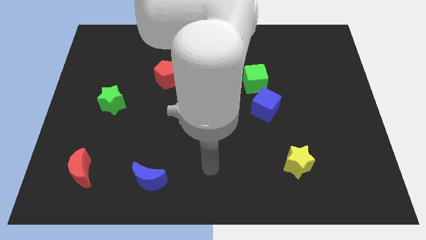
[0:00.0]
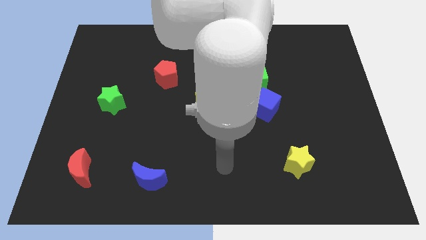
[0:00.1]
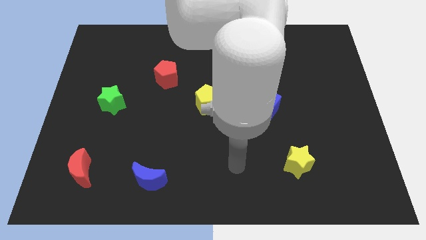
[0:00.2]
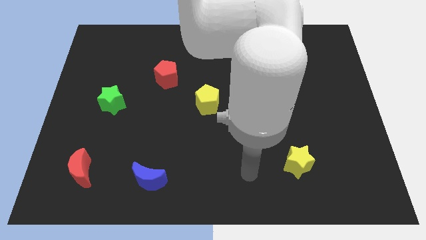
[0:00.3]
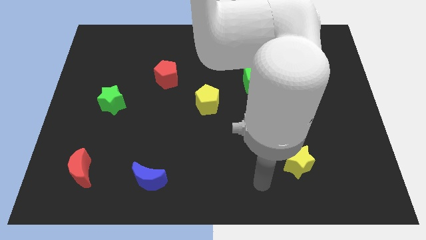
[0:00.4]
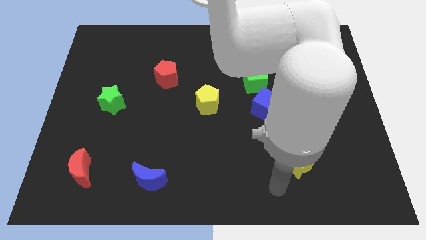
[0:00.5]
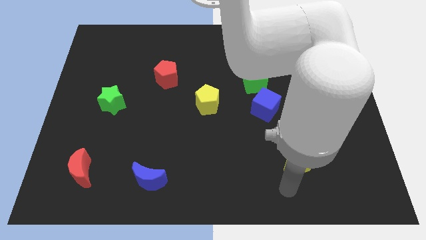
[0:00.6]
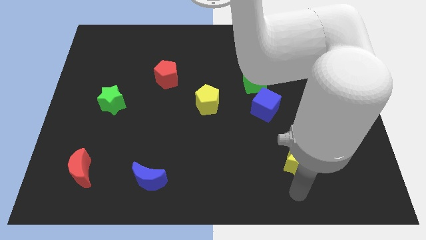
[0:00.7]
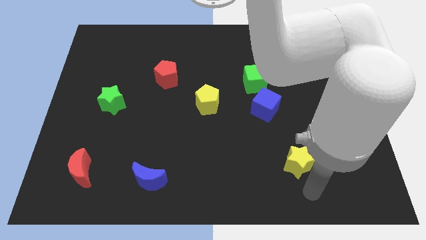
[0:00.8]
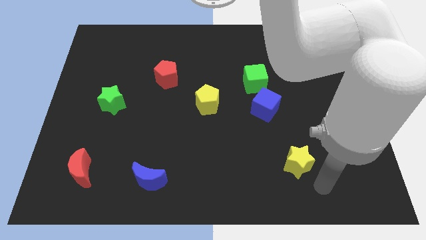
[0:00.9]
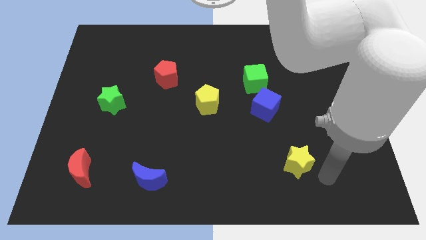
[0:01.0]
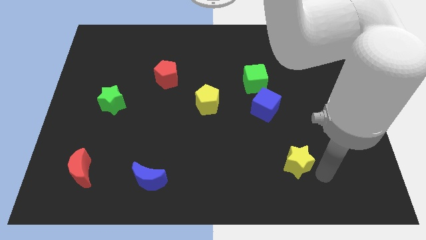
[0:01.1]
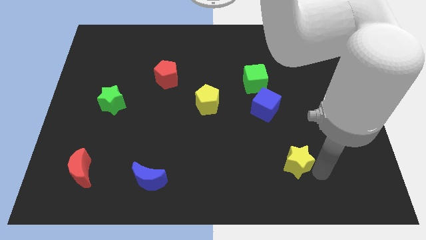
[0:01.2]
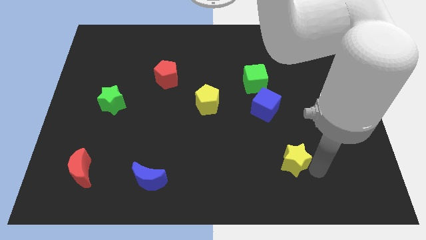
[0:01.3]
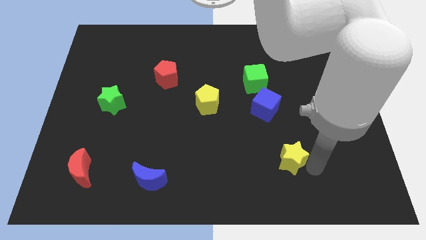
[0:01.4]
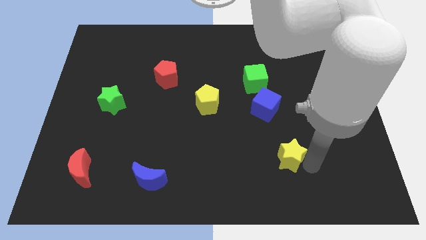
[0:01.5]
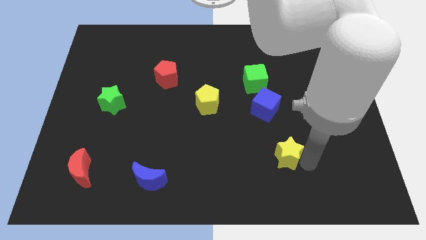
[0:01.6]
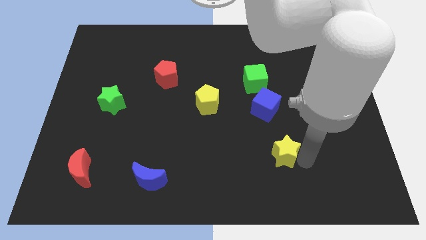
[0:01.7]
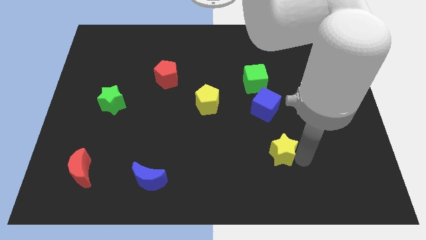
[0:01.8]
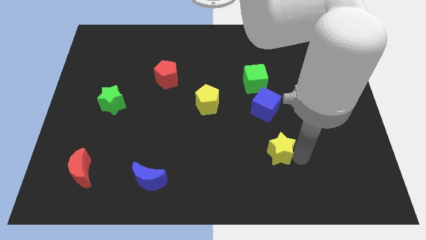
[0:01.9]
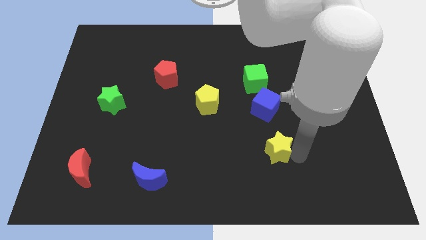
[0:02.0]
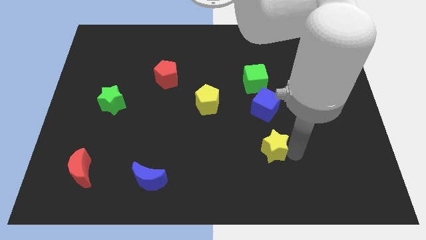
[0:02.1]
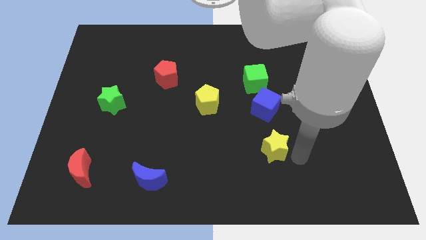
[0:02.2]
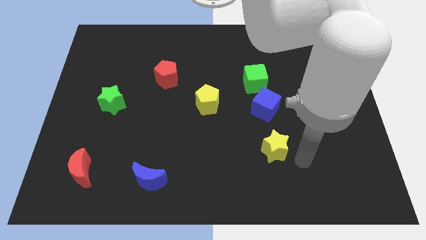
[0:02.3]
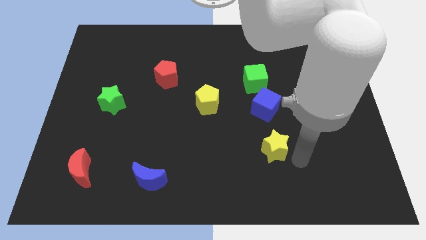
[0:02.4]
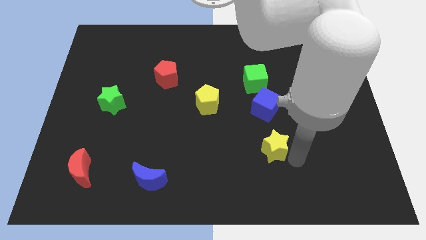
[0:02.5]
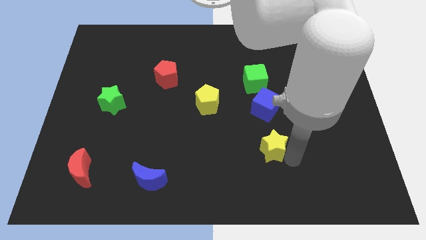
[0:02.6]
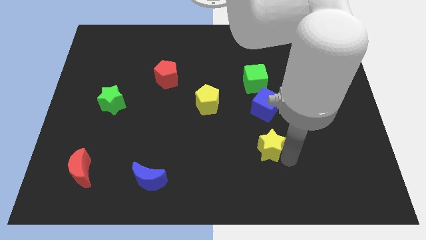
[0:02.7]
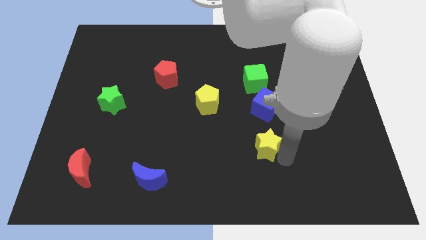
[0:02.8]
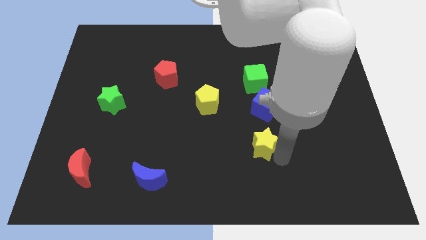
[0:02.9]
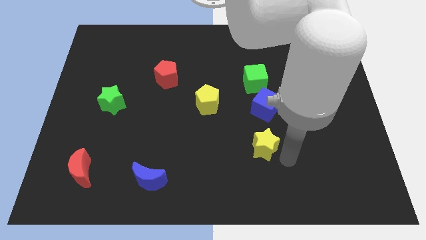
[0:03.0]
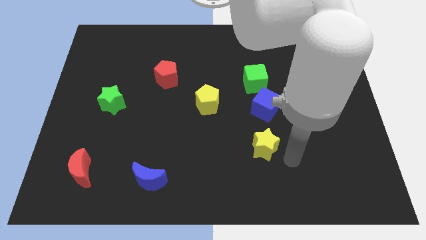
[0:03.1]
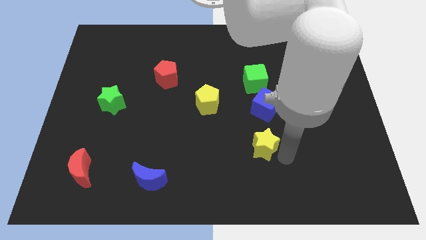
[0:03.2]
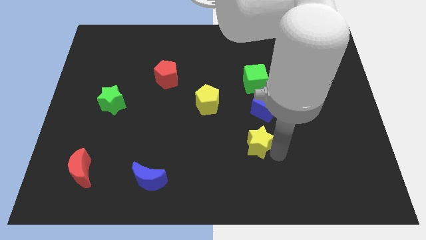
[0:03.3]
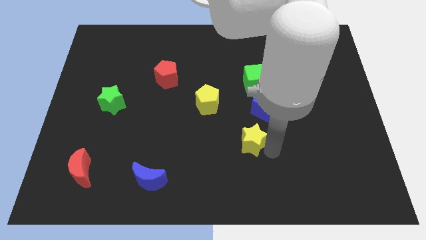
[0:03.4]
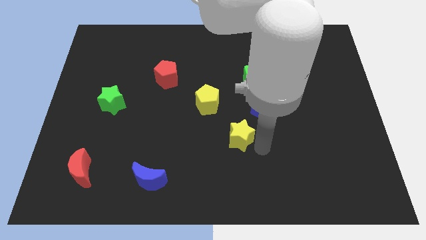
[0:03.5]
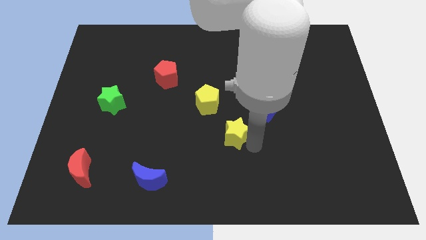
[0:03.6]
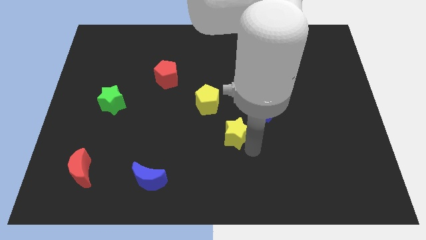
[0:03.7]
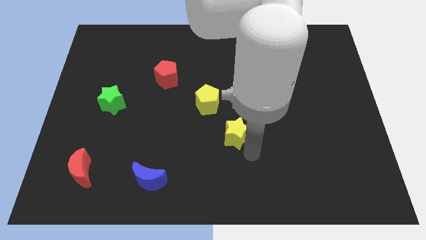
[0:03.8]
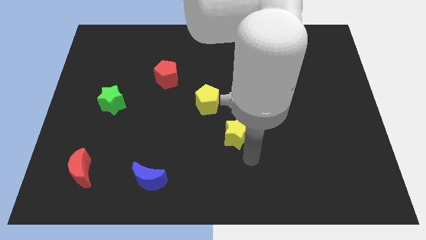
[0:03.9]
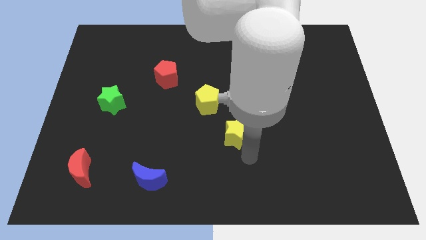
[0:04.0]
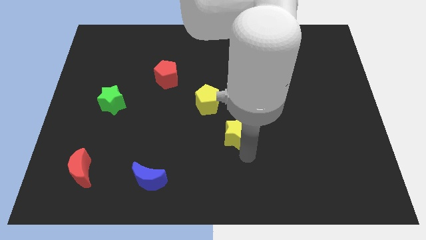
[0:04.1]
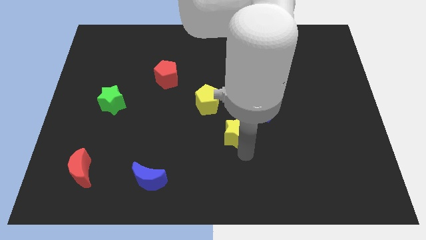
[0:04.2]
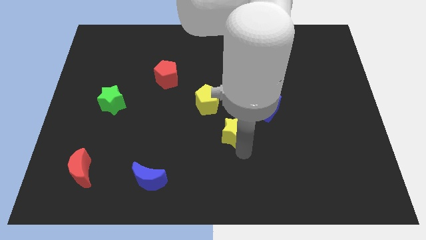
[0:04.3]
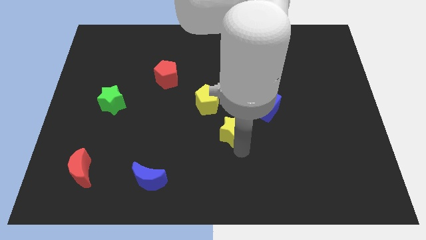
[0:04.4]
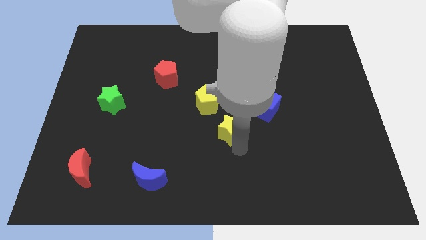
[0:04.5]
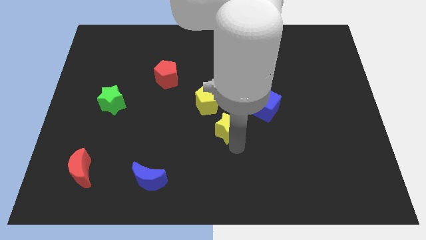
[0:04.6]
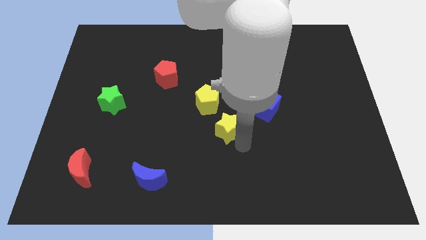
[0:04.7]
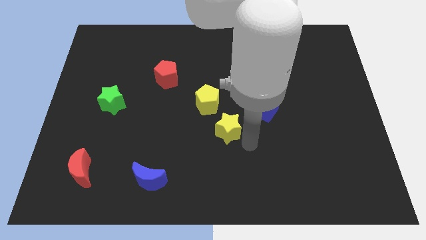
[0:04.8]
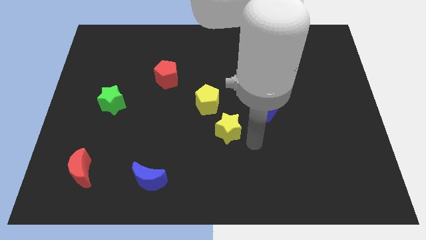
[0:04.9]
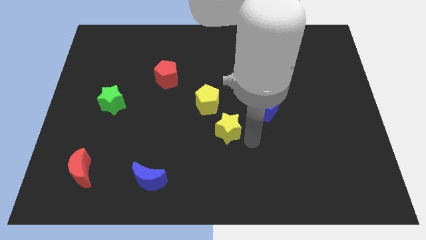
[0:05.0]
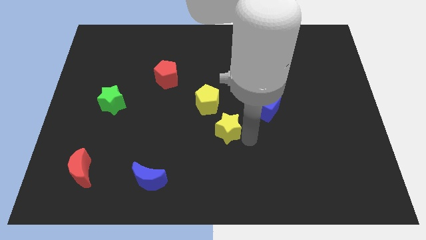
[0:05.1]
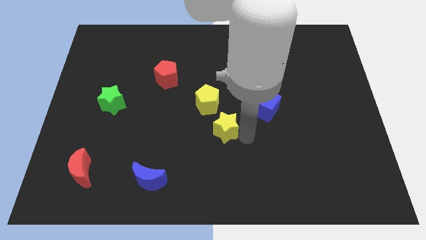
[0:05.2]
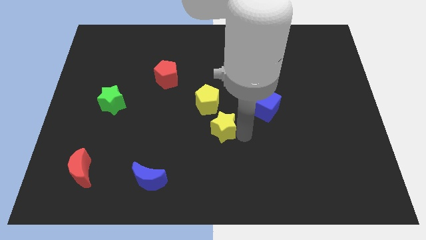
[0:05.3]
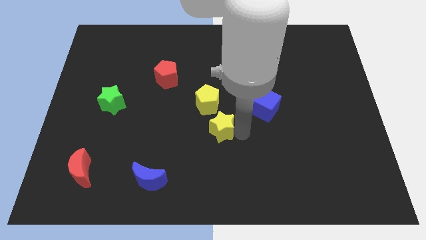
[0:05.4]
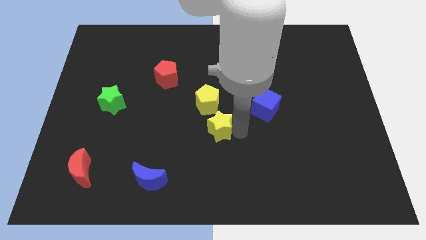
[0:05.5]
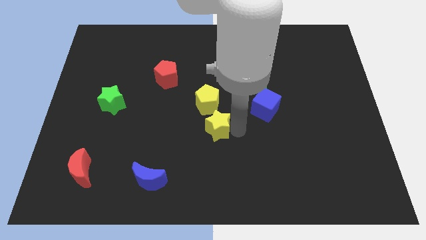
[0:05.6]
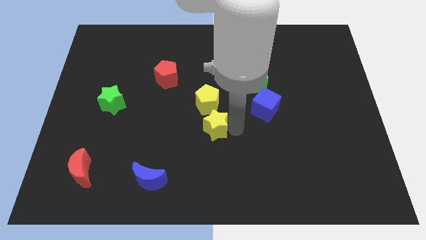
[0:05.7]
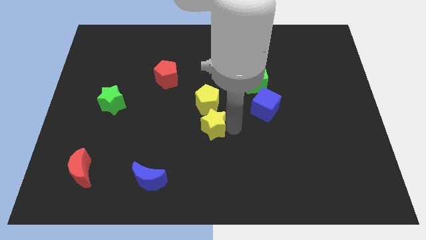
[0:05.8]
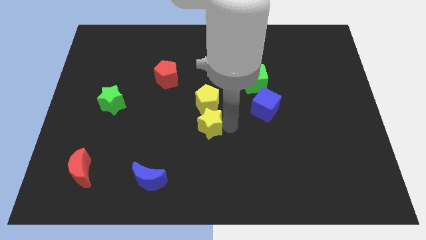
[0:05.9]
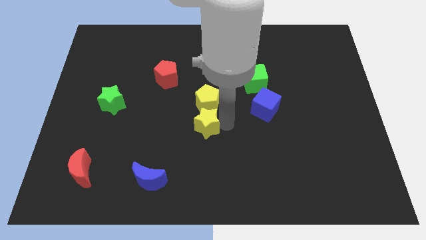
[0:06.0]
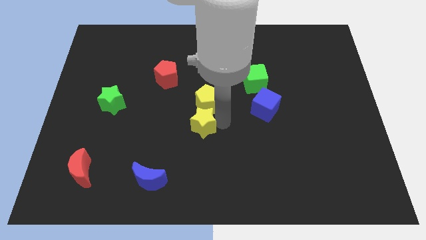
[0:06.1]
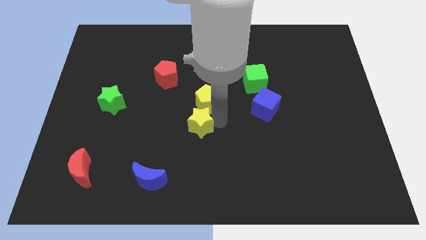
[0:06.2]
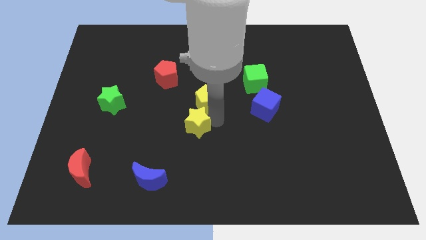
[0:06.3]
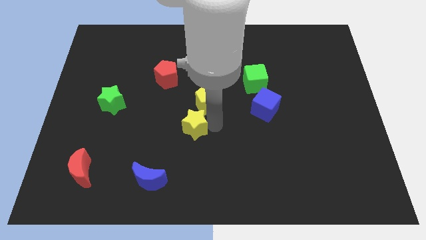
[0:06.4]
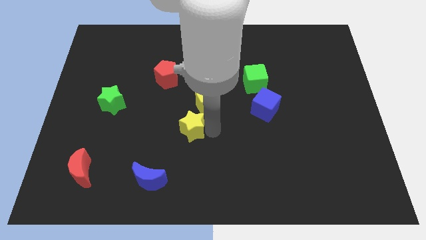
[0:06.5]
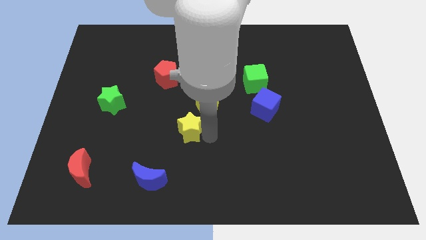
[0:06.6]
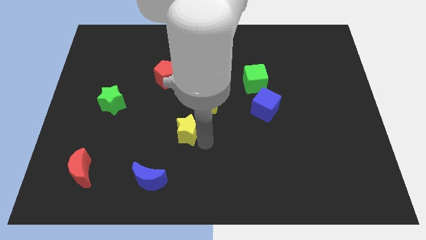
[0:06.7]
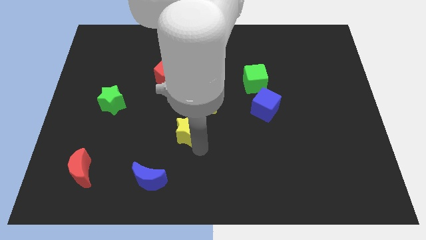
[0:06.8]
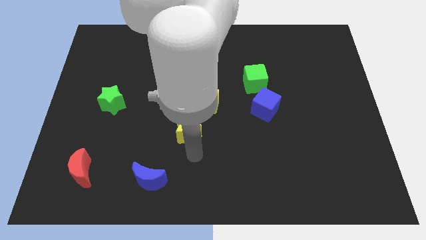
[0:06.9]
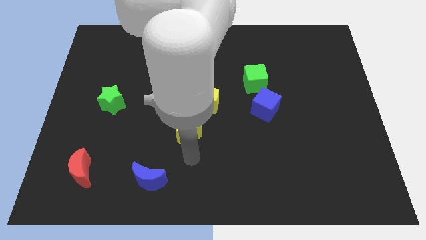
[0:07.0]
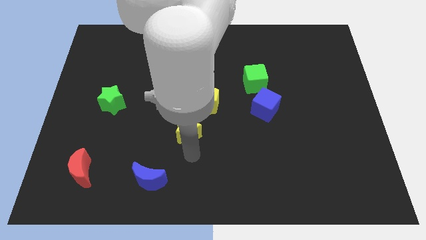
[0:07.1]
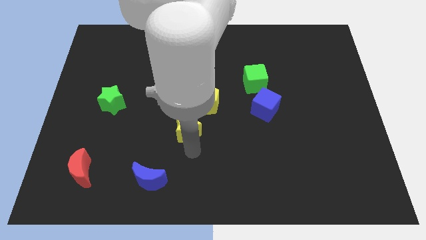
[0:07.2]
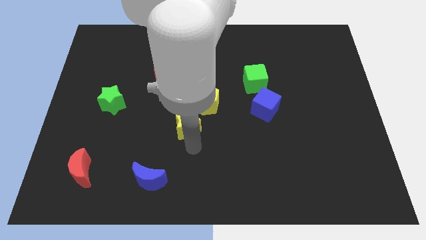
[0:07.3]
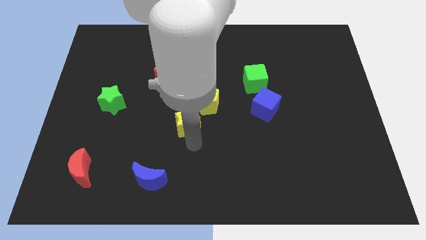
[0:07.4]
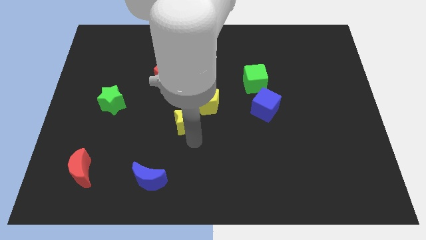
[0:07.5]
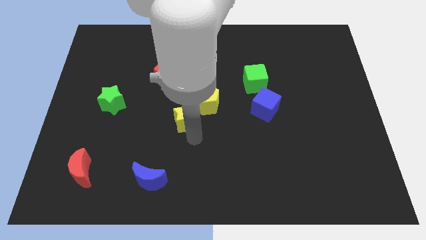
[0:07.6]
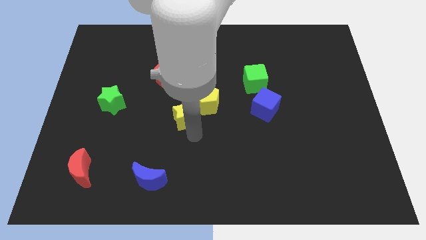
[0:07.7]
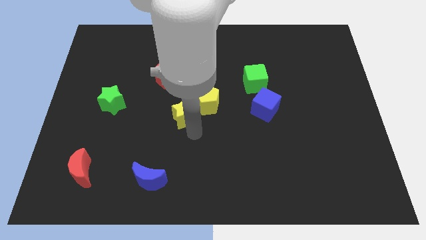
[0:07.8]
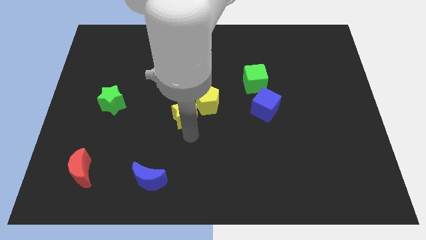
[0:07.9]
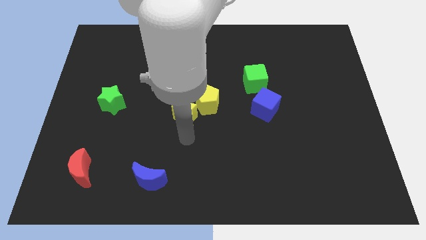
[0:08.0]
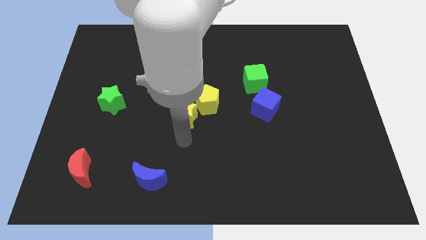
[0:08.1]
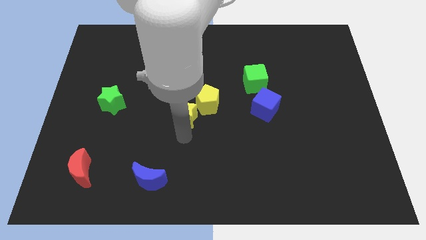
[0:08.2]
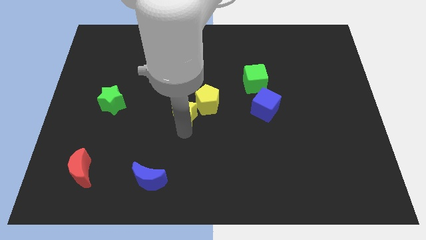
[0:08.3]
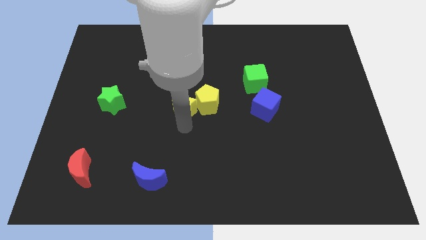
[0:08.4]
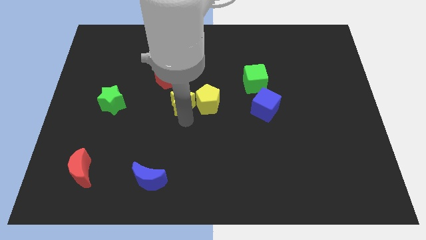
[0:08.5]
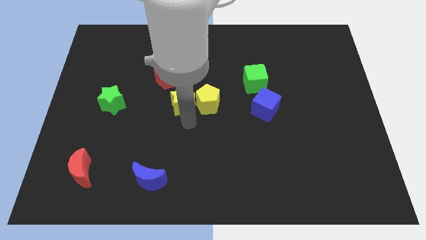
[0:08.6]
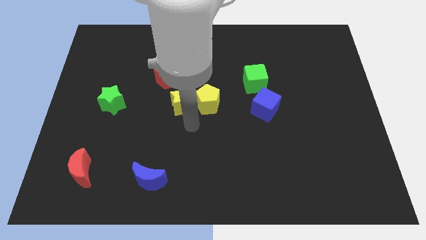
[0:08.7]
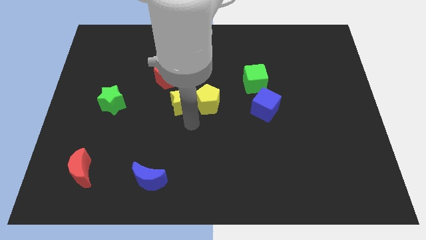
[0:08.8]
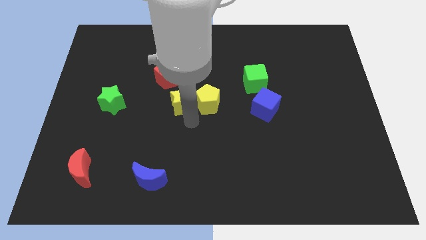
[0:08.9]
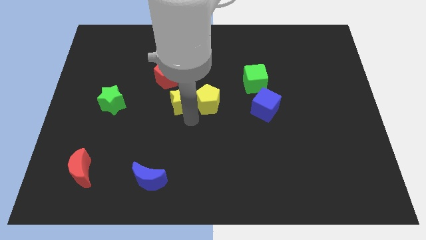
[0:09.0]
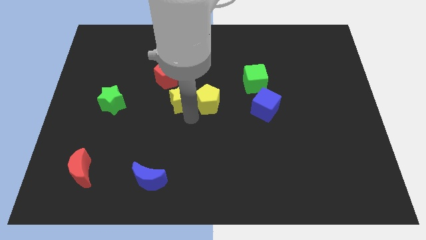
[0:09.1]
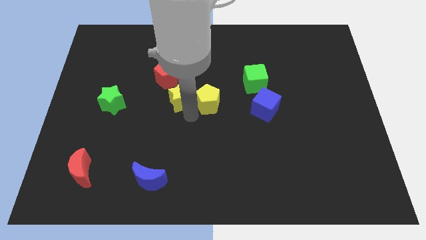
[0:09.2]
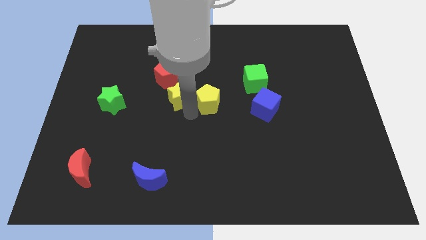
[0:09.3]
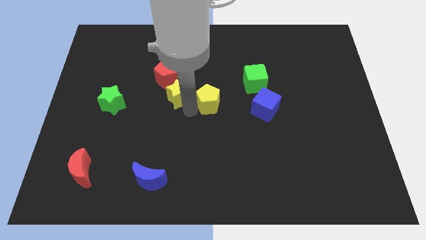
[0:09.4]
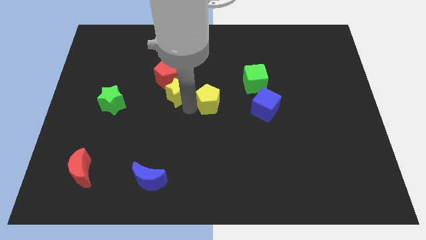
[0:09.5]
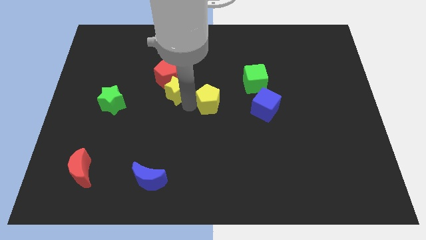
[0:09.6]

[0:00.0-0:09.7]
put the yellow star close to the red pentagon
